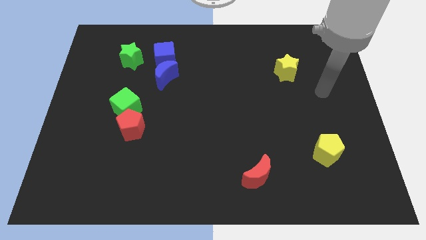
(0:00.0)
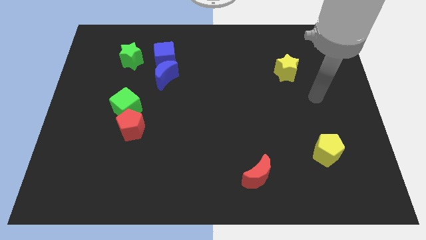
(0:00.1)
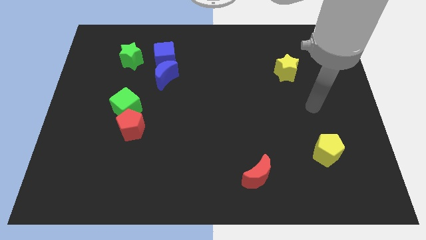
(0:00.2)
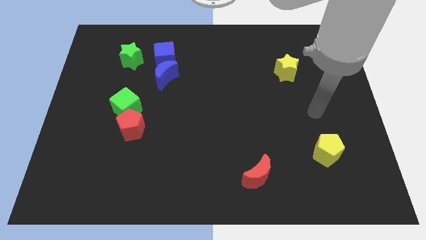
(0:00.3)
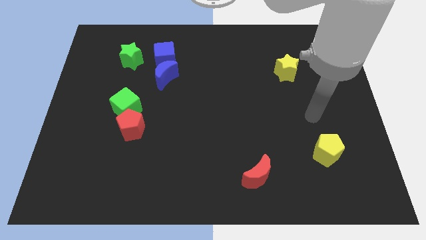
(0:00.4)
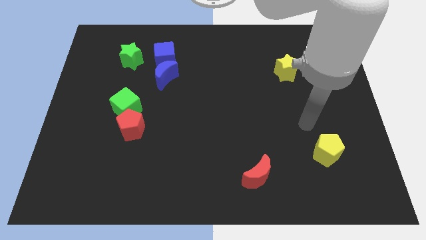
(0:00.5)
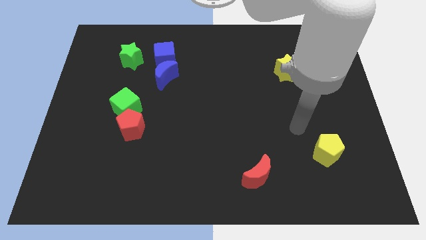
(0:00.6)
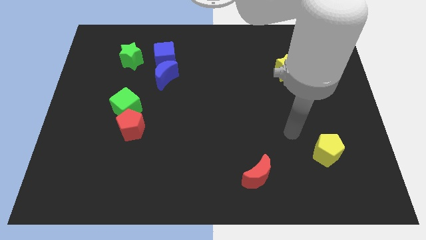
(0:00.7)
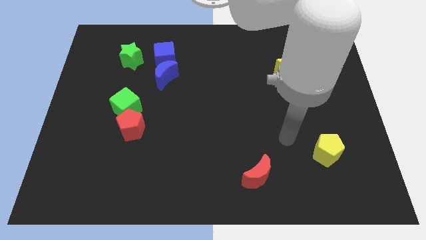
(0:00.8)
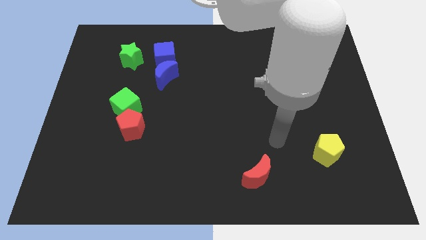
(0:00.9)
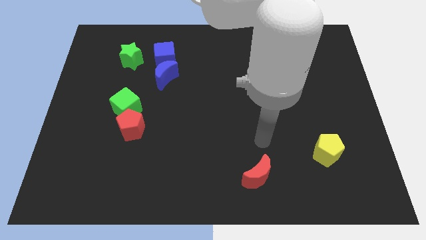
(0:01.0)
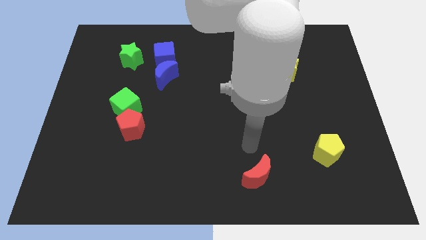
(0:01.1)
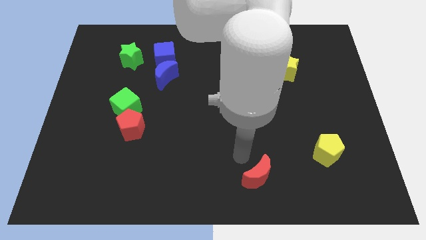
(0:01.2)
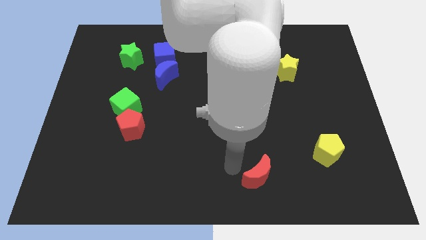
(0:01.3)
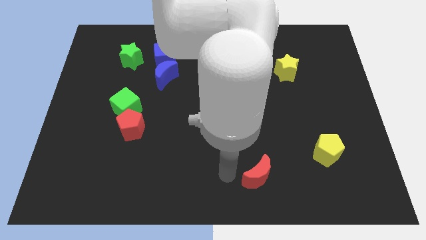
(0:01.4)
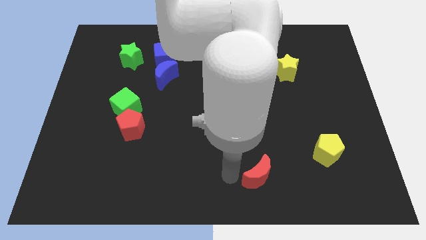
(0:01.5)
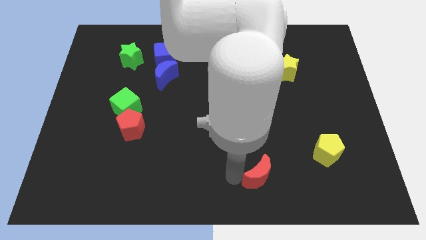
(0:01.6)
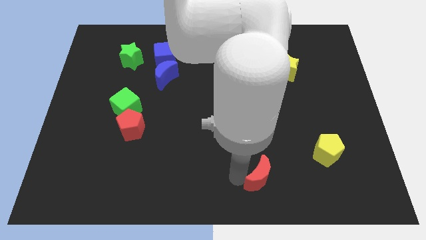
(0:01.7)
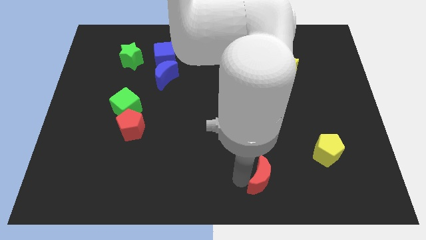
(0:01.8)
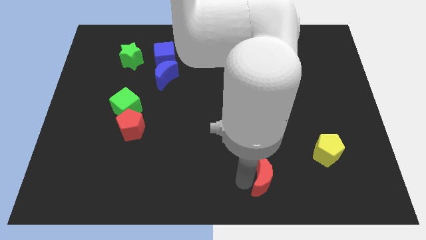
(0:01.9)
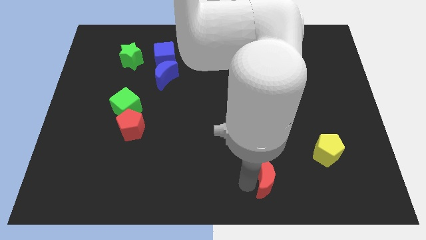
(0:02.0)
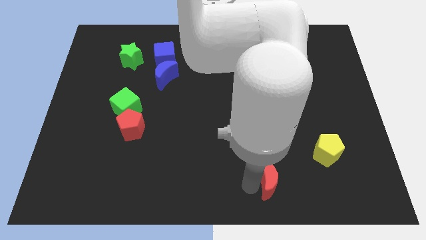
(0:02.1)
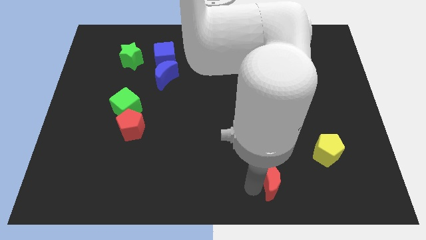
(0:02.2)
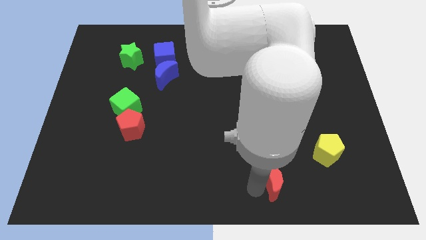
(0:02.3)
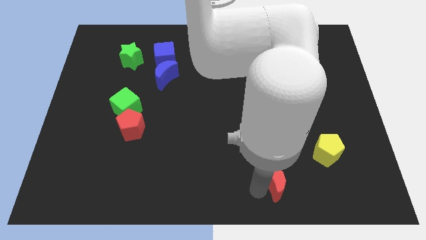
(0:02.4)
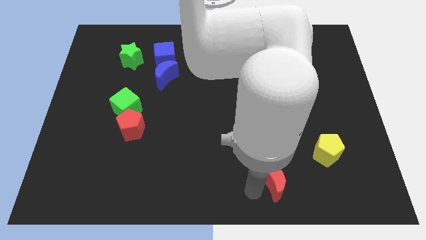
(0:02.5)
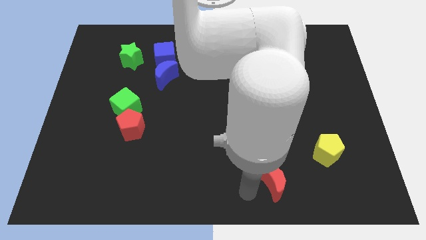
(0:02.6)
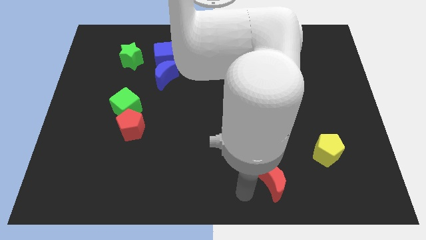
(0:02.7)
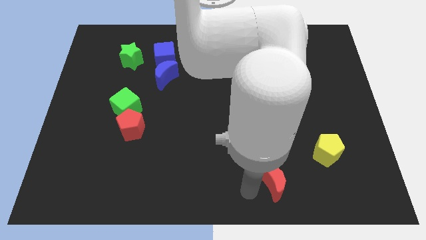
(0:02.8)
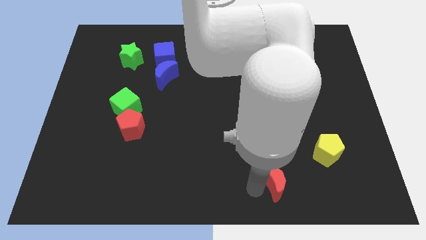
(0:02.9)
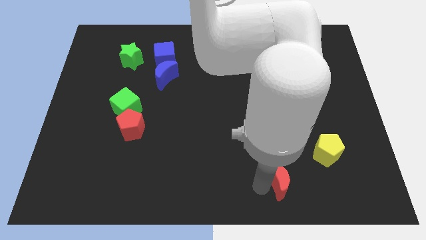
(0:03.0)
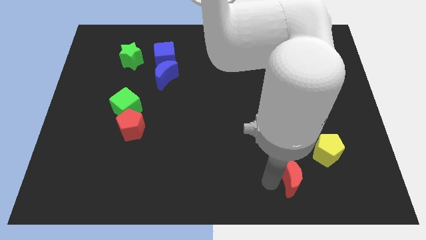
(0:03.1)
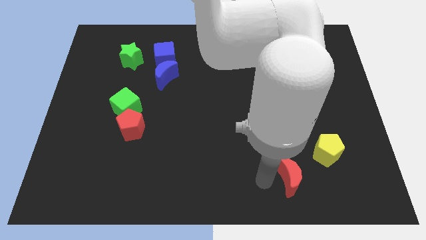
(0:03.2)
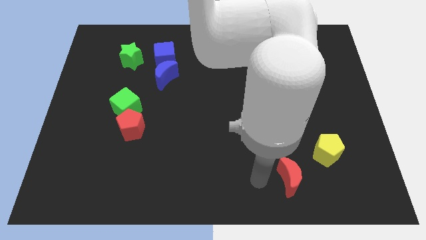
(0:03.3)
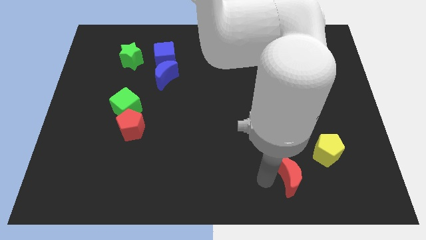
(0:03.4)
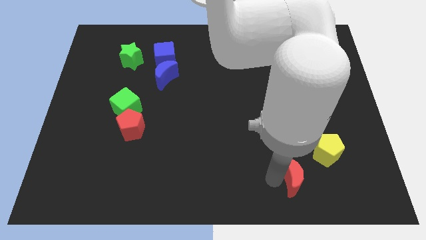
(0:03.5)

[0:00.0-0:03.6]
push the red moon to the right slightly

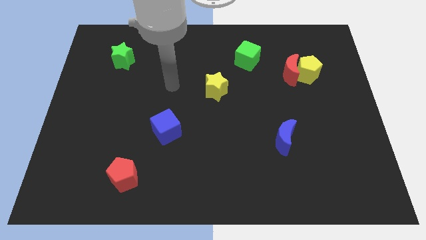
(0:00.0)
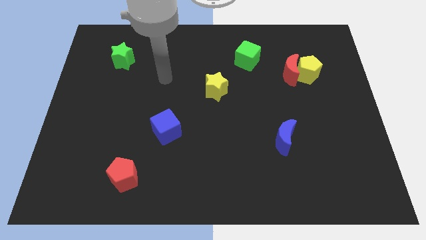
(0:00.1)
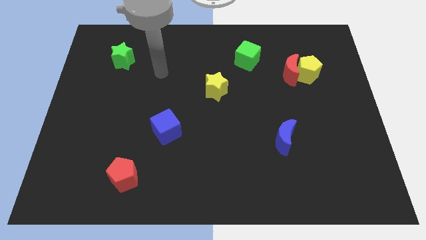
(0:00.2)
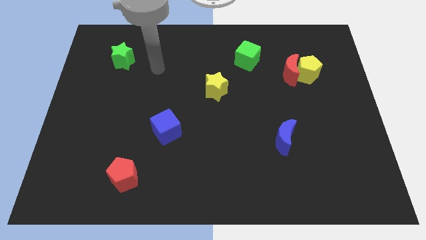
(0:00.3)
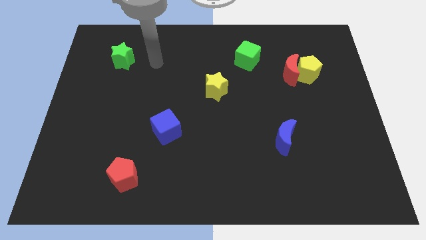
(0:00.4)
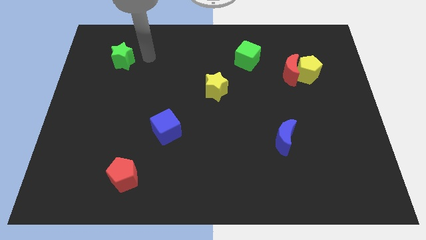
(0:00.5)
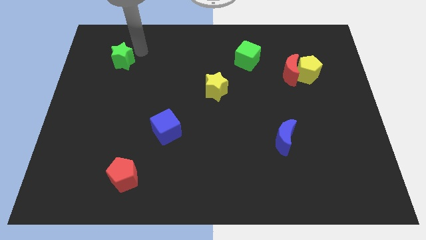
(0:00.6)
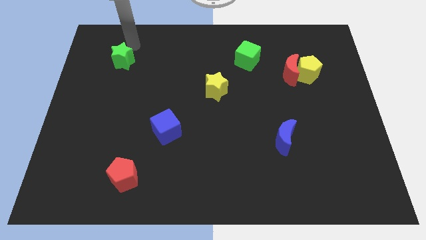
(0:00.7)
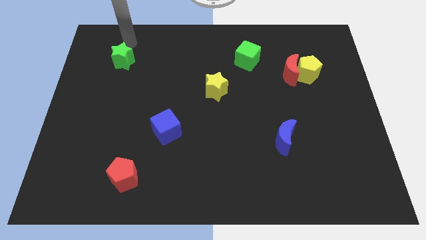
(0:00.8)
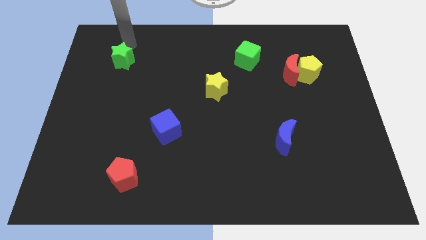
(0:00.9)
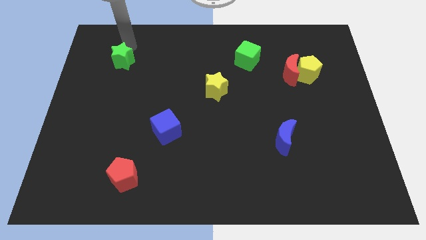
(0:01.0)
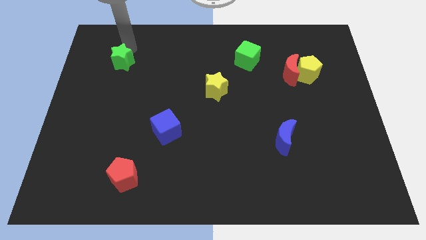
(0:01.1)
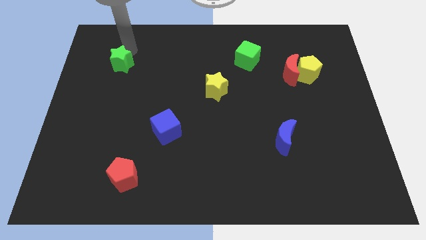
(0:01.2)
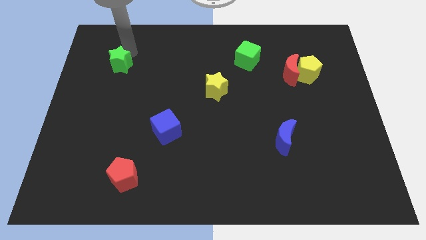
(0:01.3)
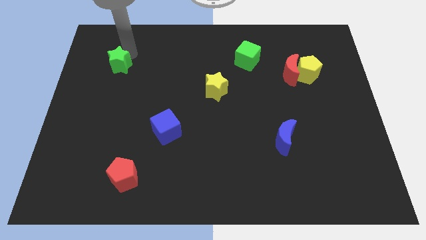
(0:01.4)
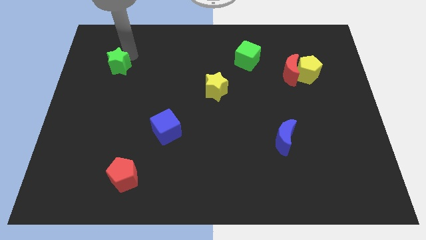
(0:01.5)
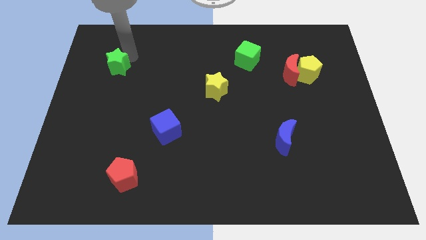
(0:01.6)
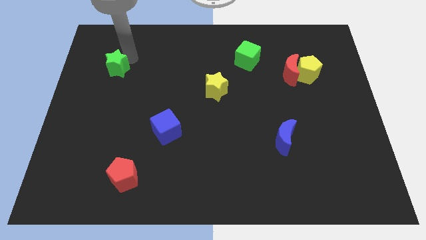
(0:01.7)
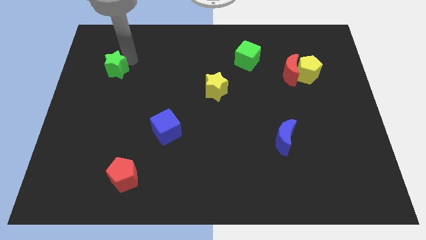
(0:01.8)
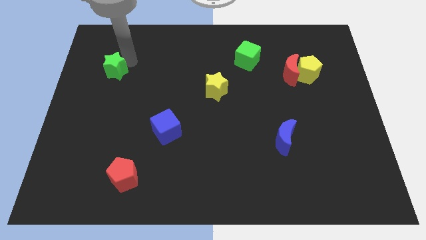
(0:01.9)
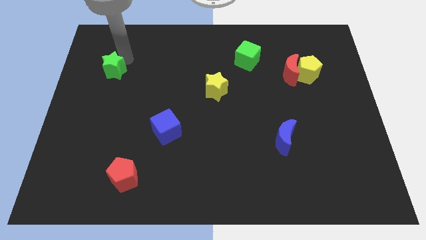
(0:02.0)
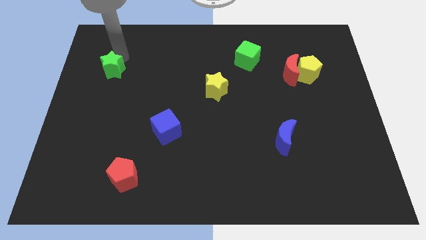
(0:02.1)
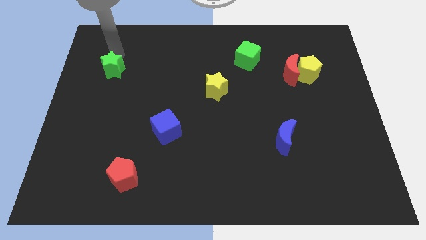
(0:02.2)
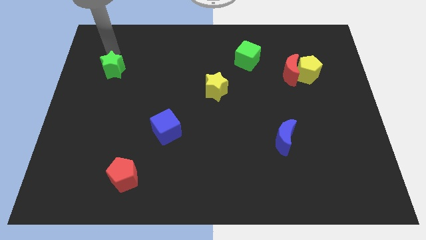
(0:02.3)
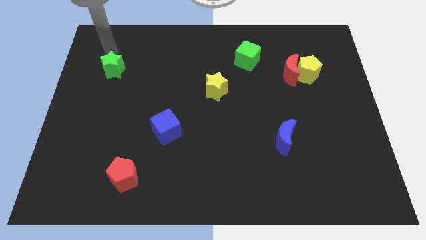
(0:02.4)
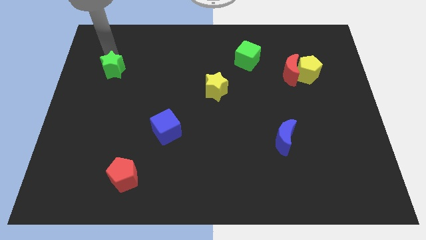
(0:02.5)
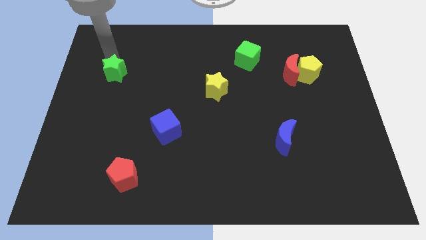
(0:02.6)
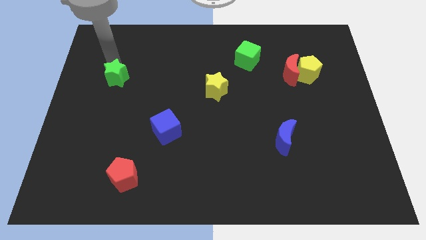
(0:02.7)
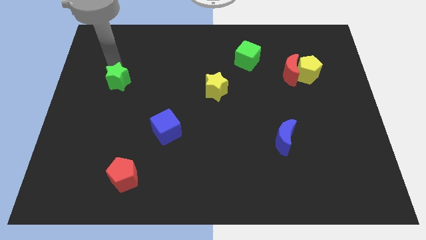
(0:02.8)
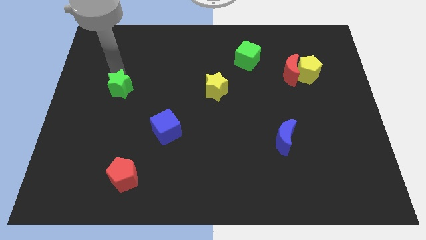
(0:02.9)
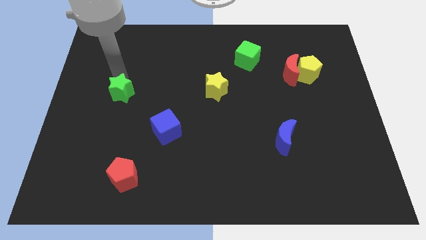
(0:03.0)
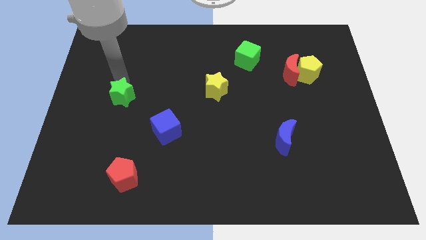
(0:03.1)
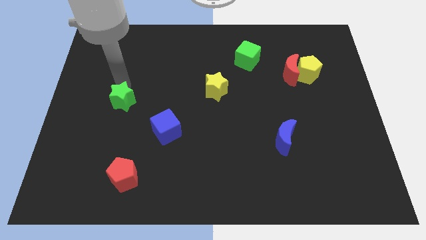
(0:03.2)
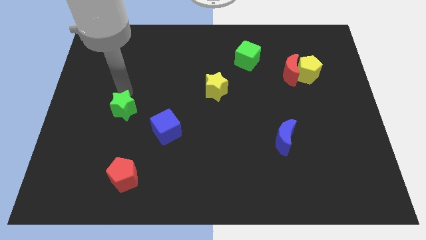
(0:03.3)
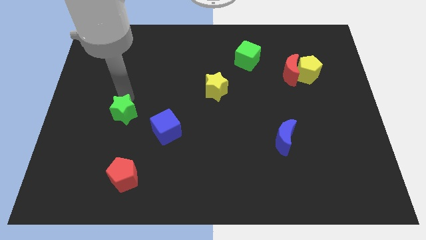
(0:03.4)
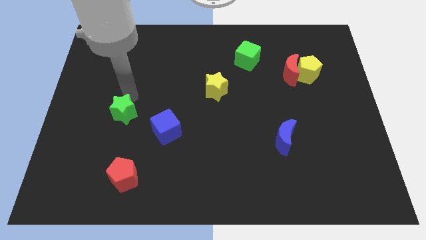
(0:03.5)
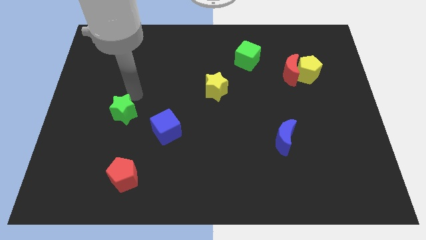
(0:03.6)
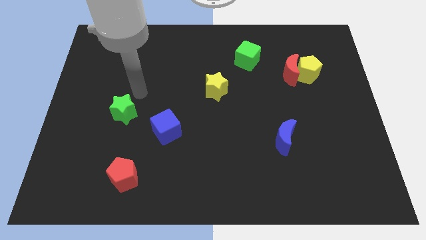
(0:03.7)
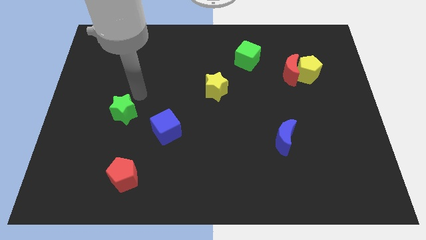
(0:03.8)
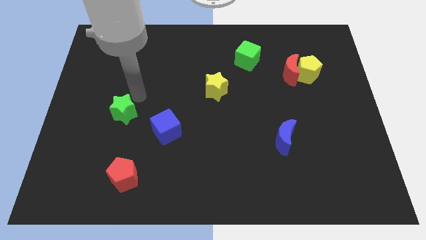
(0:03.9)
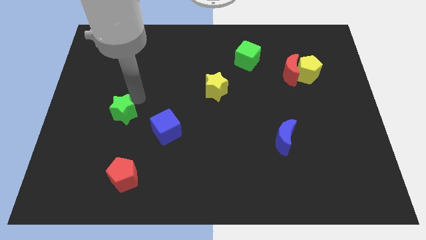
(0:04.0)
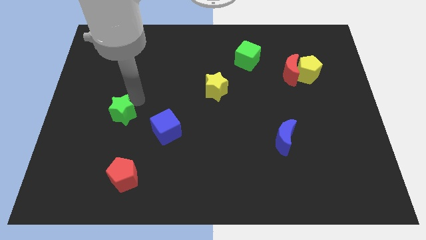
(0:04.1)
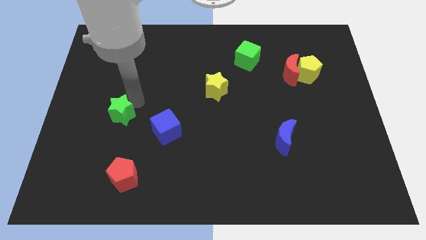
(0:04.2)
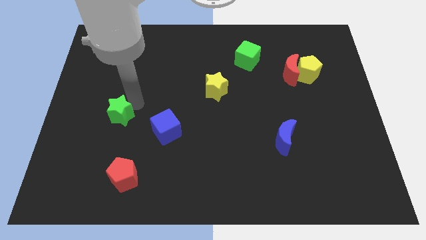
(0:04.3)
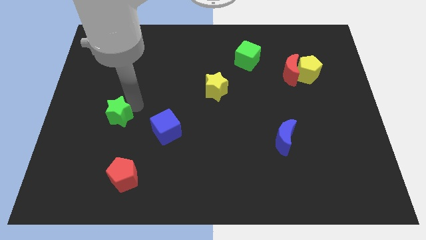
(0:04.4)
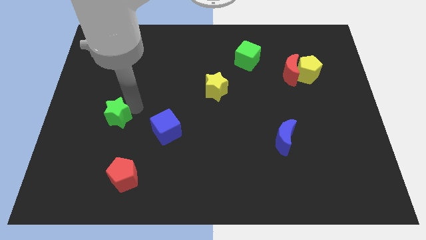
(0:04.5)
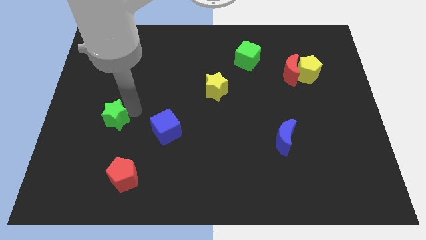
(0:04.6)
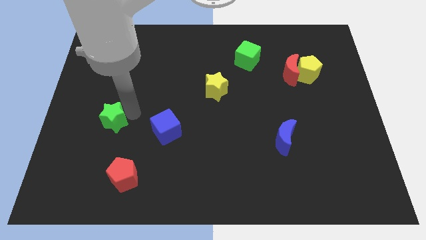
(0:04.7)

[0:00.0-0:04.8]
slide the green star downwards

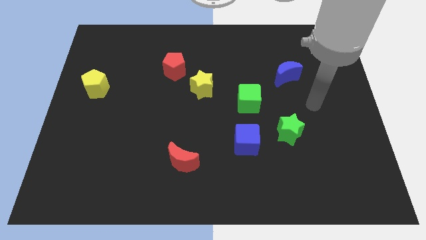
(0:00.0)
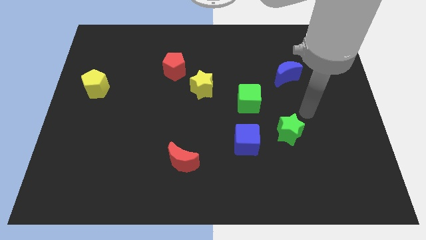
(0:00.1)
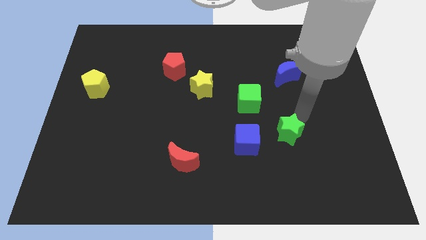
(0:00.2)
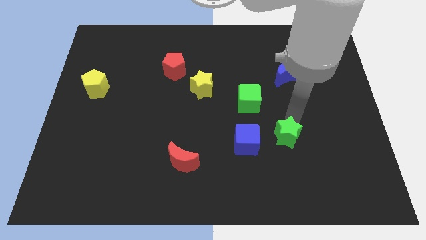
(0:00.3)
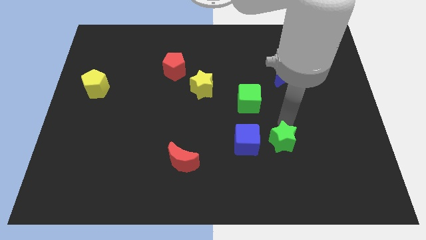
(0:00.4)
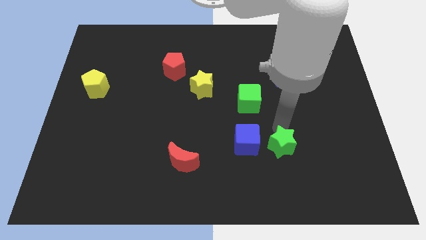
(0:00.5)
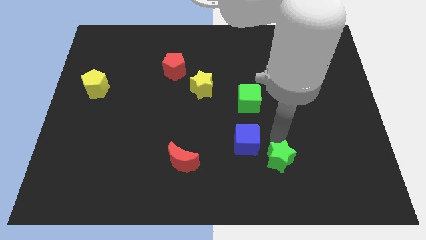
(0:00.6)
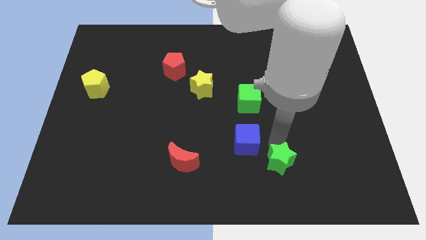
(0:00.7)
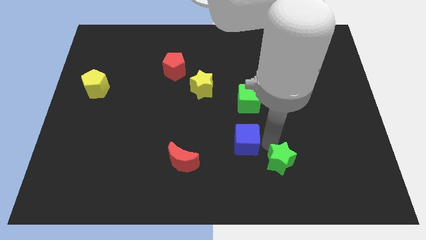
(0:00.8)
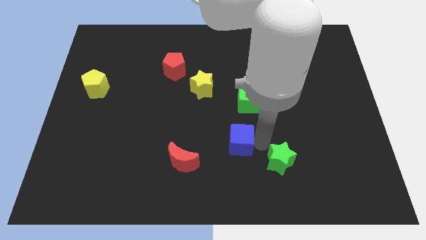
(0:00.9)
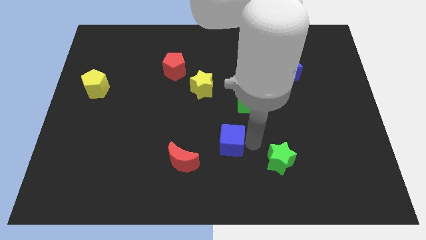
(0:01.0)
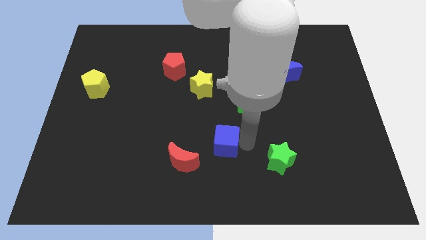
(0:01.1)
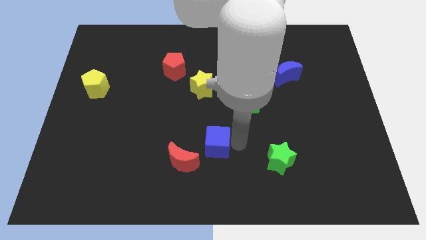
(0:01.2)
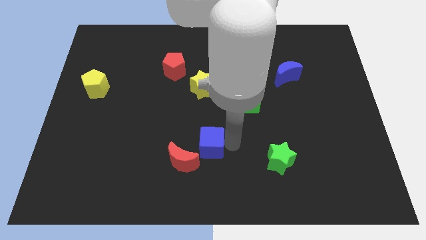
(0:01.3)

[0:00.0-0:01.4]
move the blue cube slightly left
